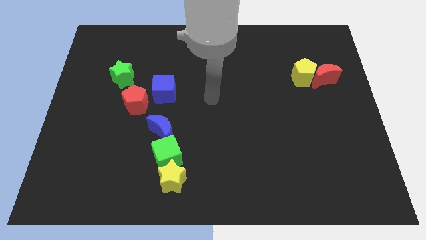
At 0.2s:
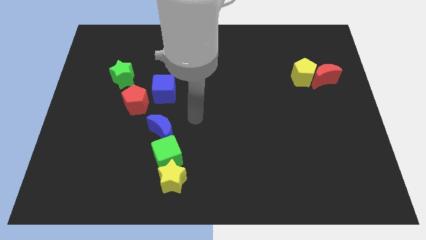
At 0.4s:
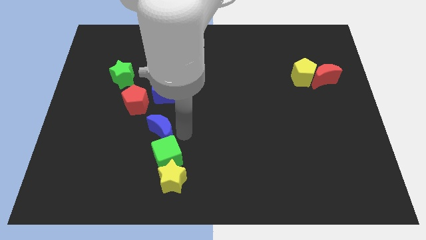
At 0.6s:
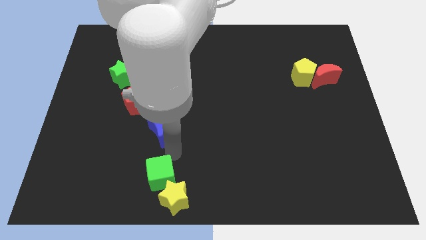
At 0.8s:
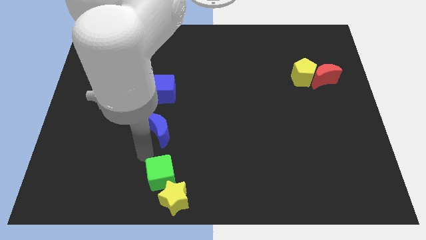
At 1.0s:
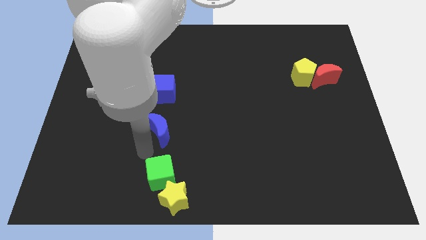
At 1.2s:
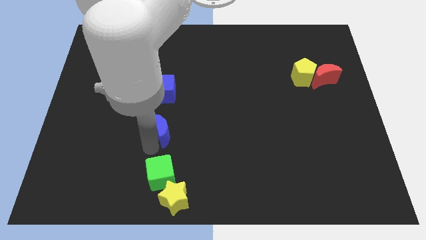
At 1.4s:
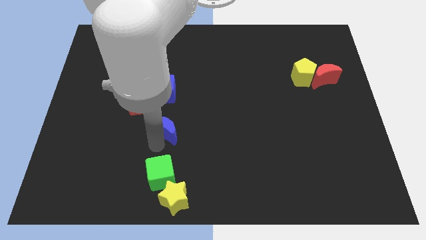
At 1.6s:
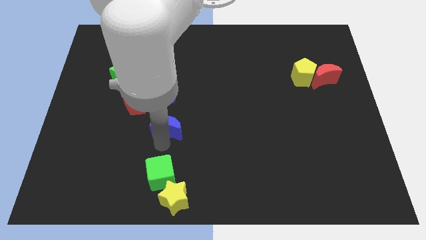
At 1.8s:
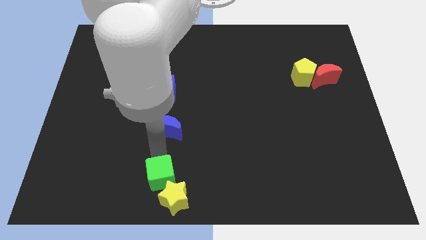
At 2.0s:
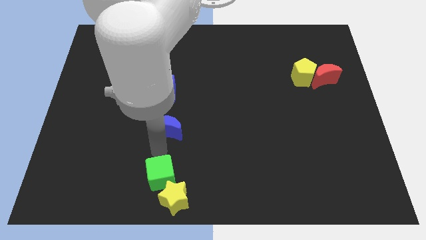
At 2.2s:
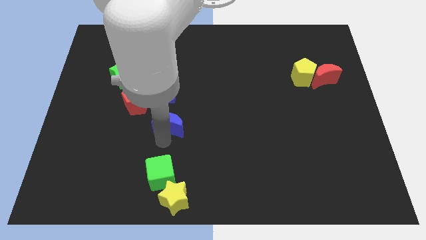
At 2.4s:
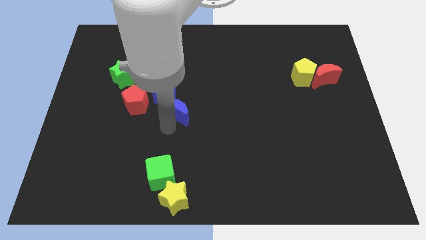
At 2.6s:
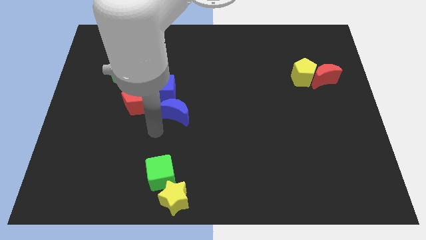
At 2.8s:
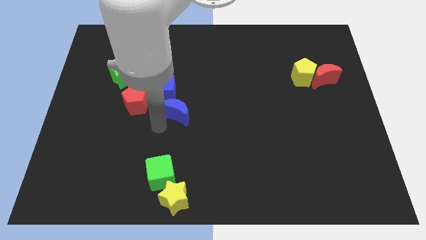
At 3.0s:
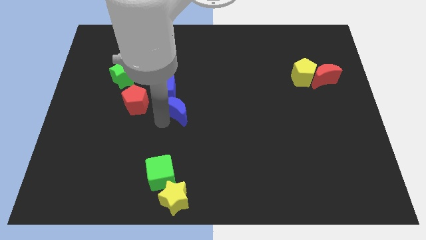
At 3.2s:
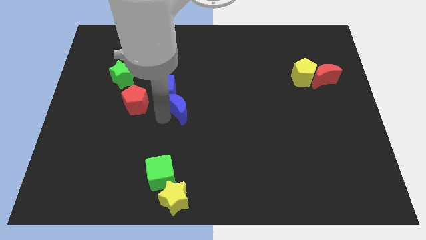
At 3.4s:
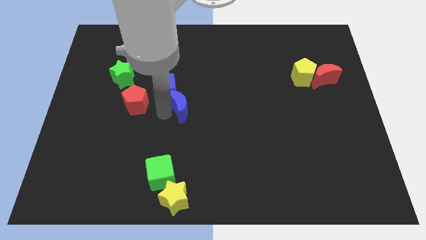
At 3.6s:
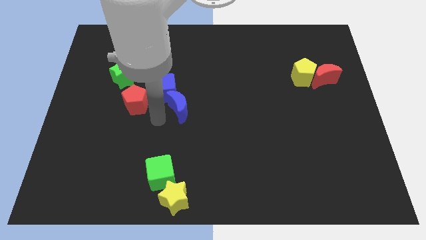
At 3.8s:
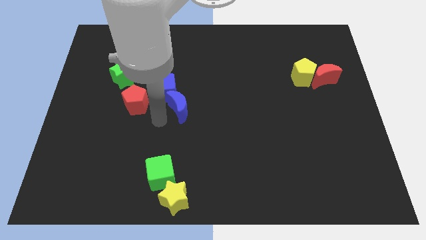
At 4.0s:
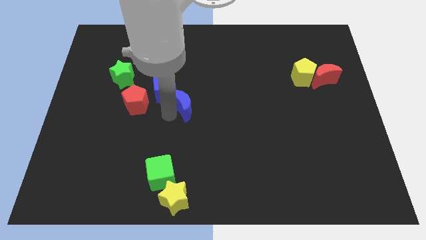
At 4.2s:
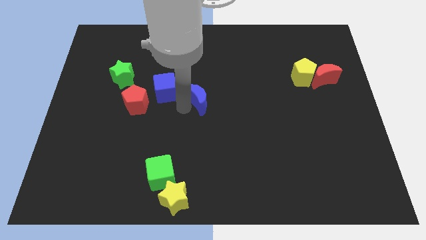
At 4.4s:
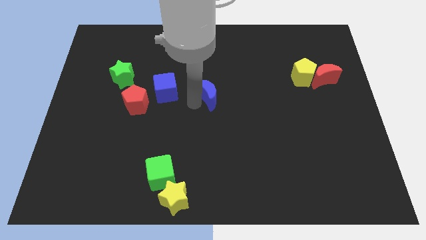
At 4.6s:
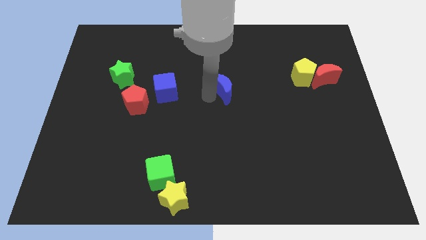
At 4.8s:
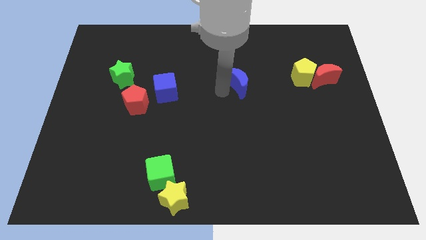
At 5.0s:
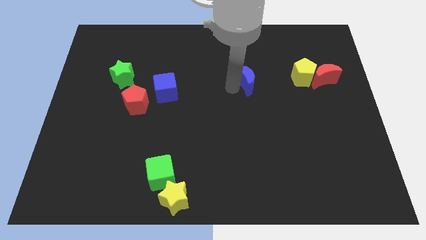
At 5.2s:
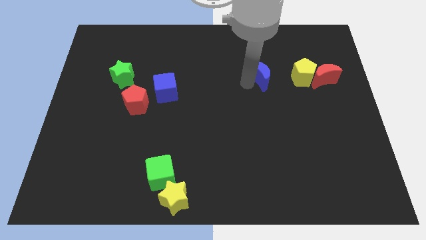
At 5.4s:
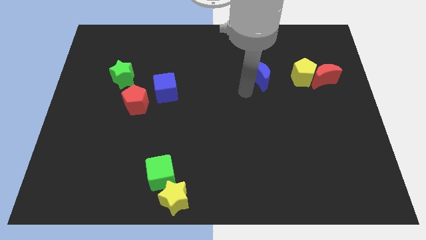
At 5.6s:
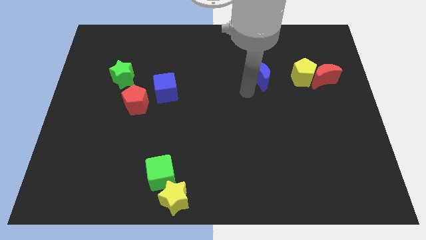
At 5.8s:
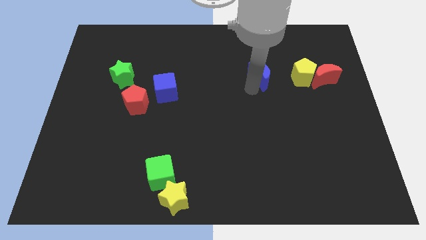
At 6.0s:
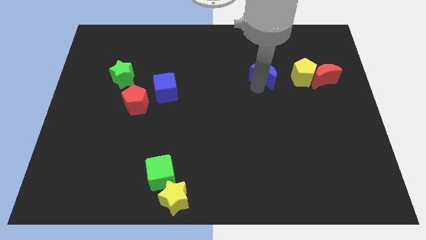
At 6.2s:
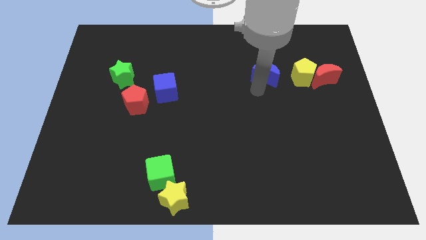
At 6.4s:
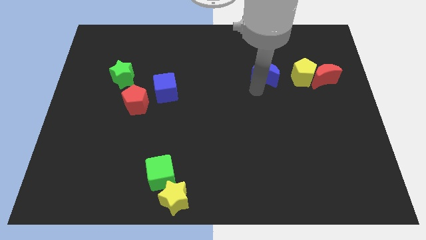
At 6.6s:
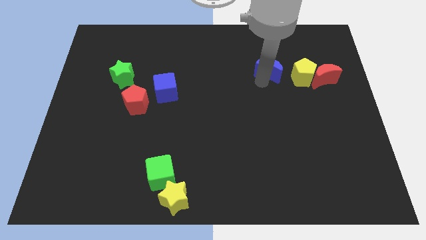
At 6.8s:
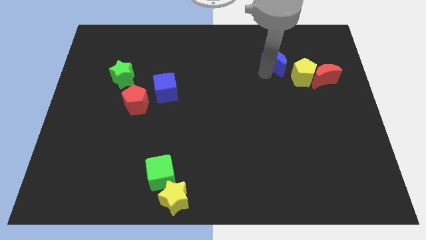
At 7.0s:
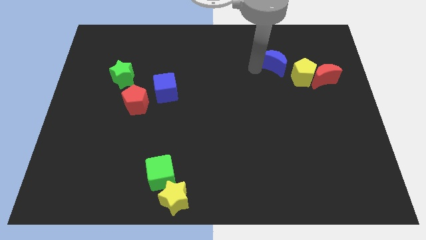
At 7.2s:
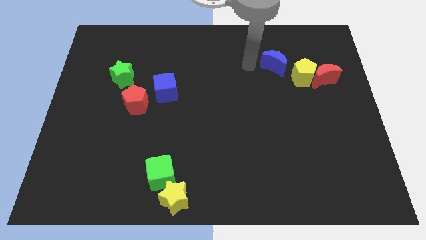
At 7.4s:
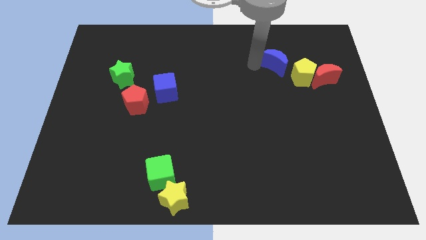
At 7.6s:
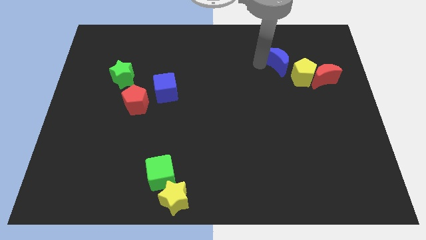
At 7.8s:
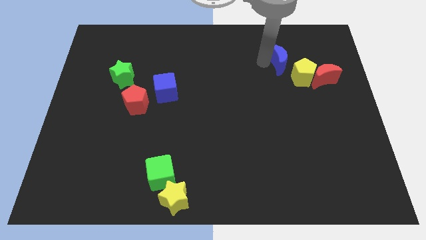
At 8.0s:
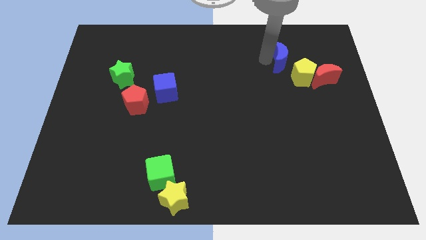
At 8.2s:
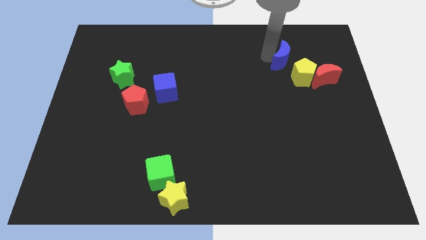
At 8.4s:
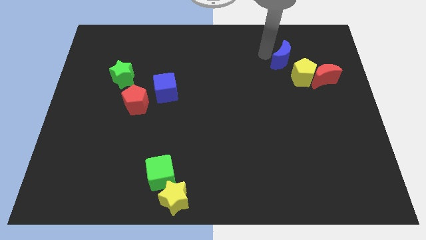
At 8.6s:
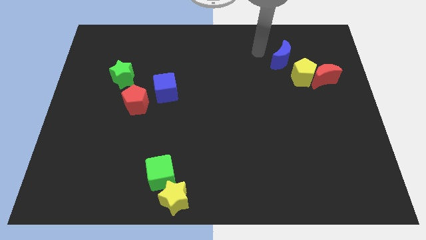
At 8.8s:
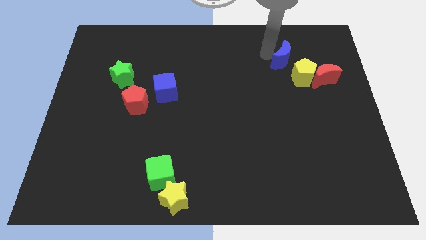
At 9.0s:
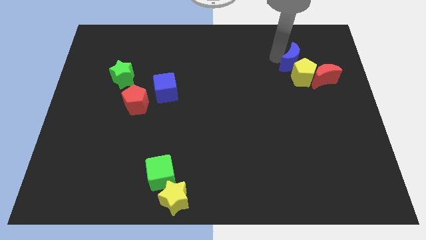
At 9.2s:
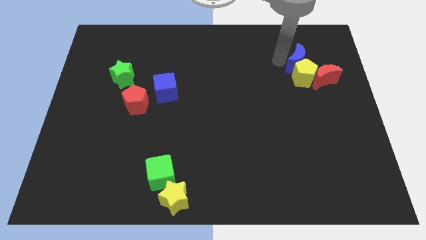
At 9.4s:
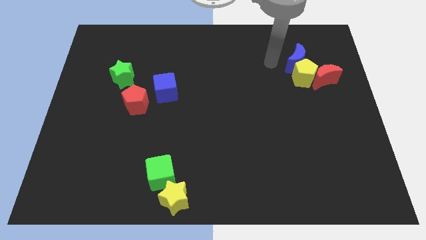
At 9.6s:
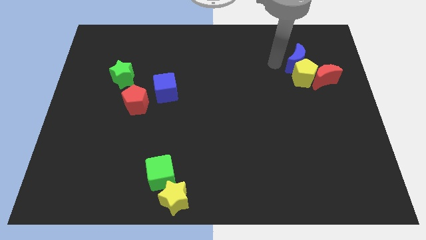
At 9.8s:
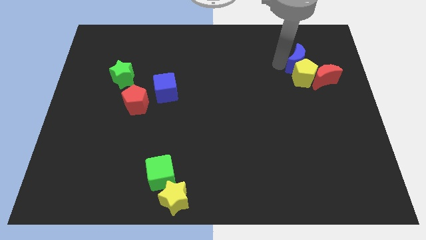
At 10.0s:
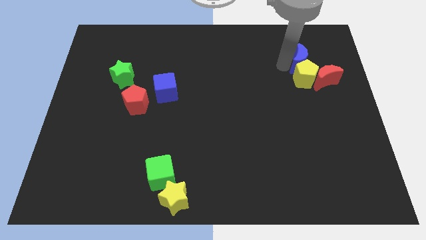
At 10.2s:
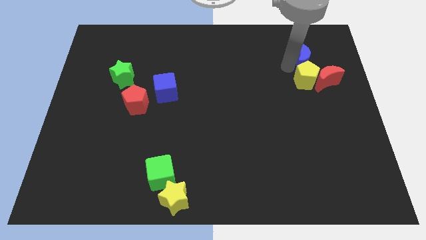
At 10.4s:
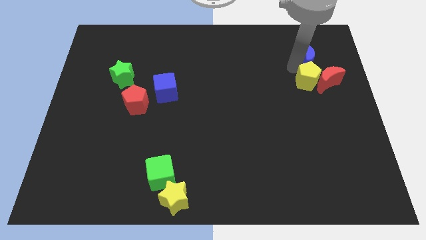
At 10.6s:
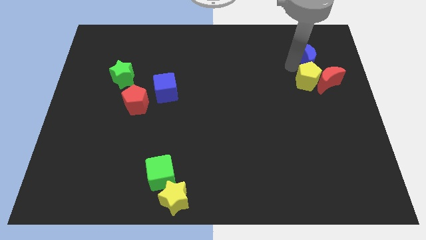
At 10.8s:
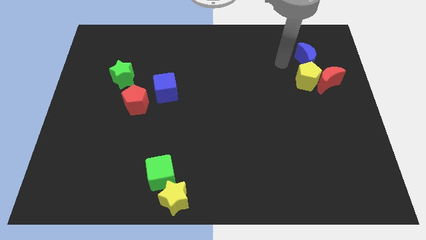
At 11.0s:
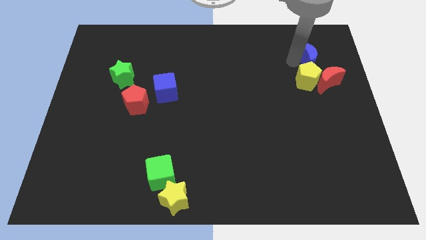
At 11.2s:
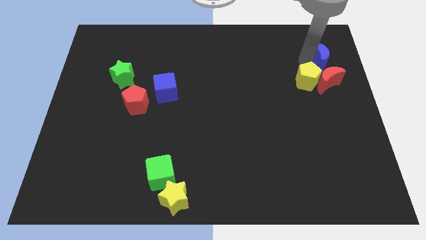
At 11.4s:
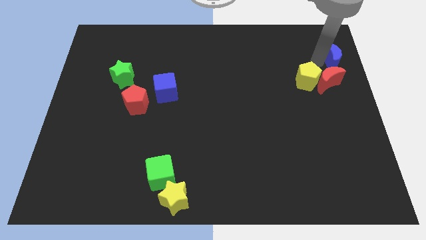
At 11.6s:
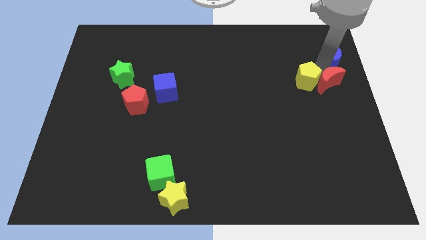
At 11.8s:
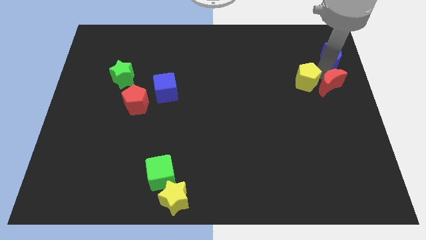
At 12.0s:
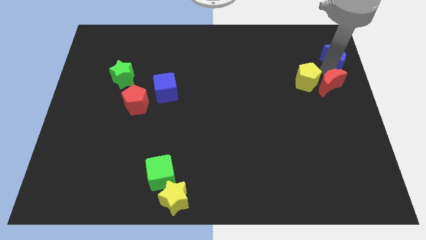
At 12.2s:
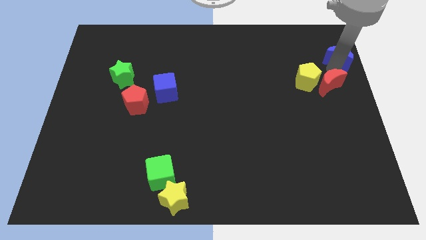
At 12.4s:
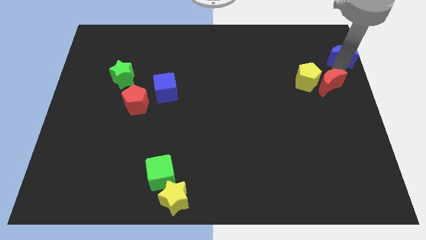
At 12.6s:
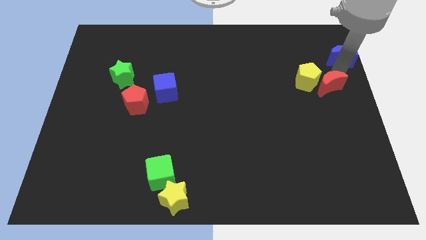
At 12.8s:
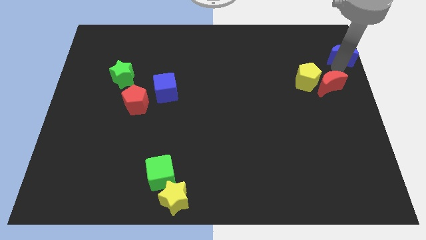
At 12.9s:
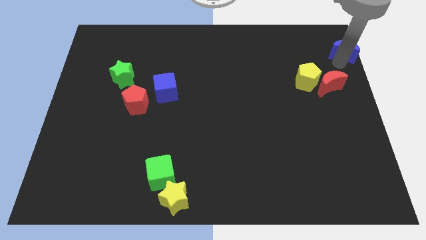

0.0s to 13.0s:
slide the blue moon to the upper right corner
